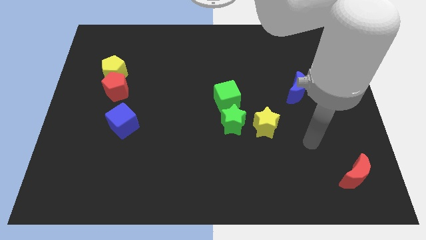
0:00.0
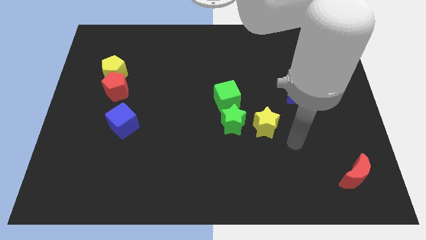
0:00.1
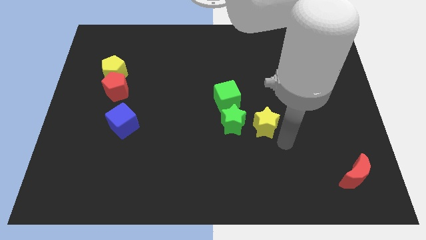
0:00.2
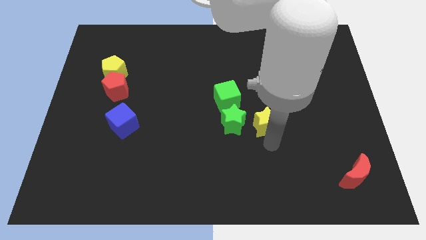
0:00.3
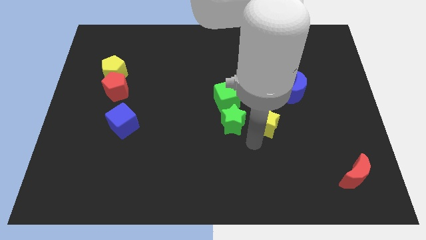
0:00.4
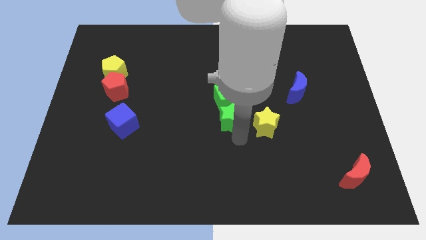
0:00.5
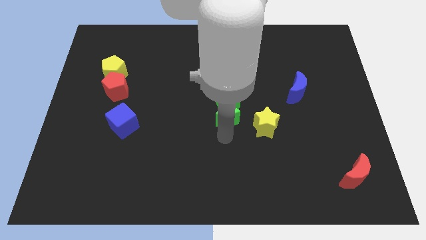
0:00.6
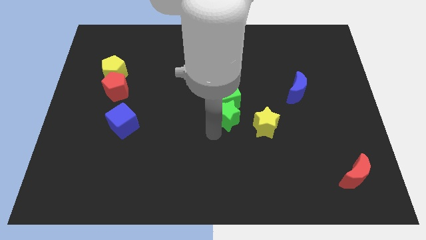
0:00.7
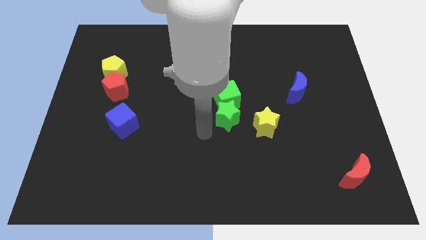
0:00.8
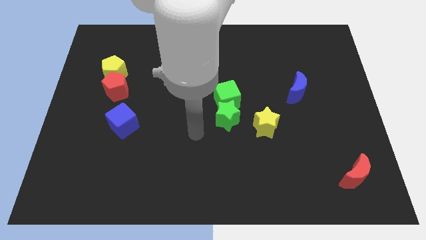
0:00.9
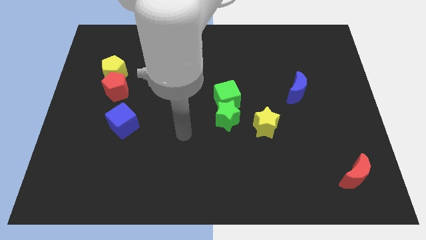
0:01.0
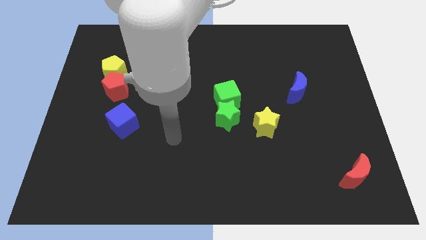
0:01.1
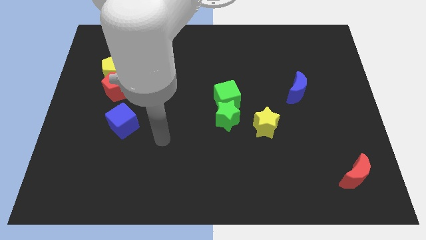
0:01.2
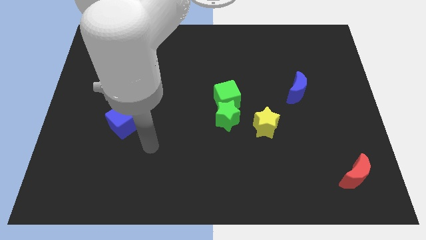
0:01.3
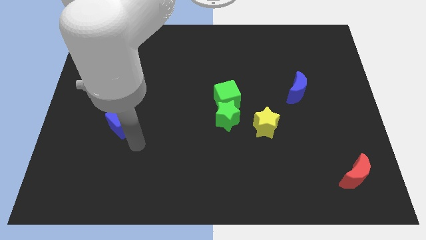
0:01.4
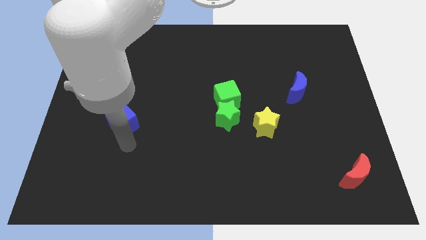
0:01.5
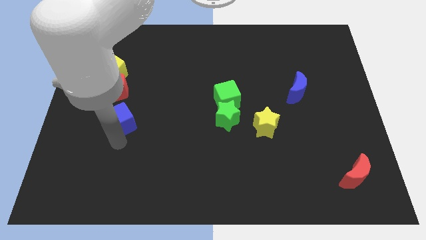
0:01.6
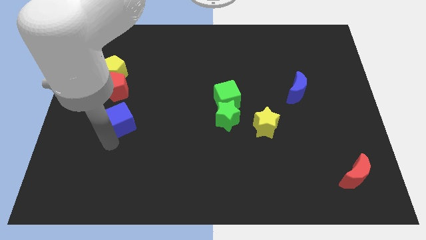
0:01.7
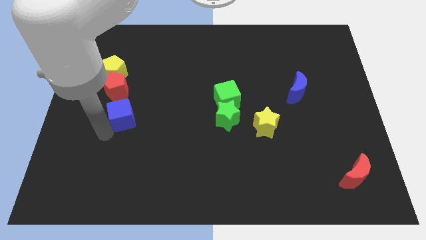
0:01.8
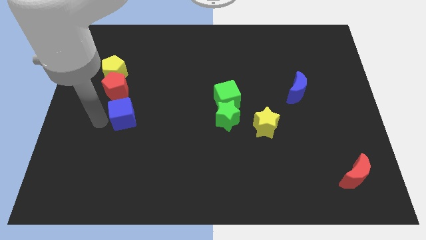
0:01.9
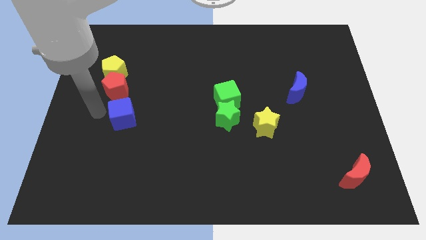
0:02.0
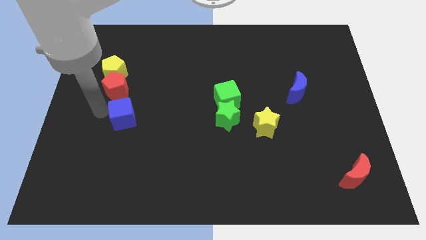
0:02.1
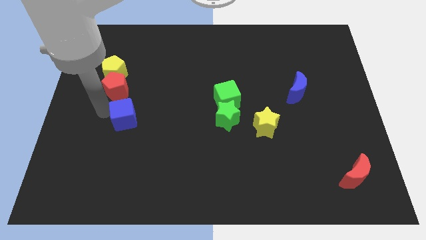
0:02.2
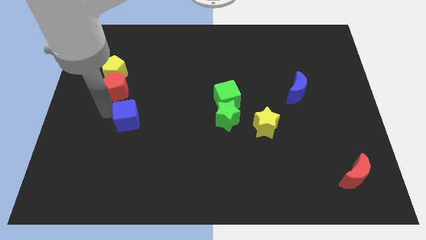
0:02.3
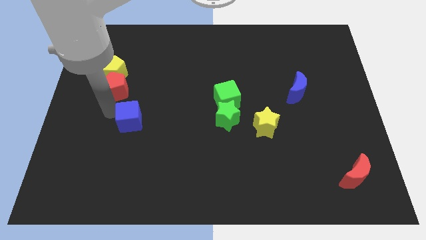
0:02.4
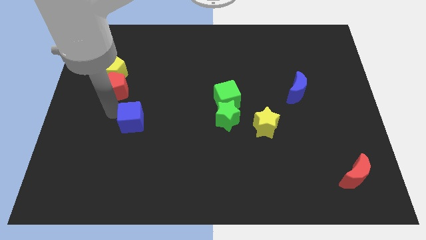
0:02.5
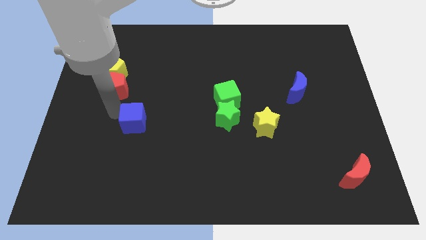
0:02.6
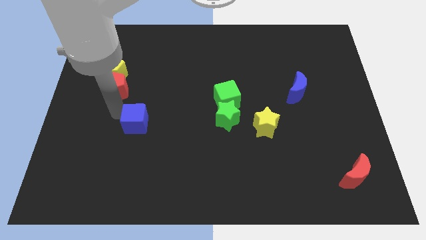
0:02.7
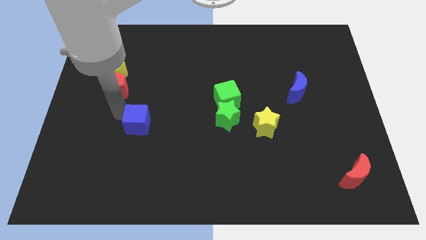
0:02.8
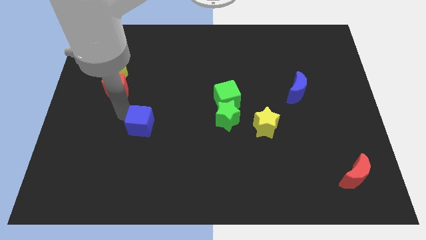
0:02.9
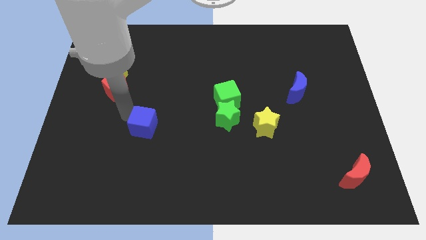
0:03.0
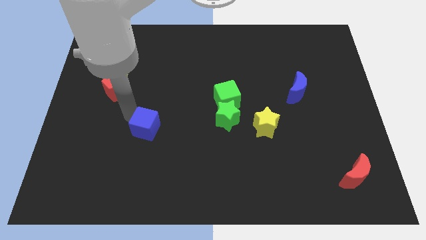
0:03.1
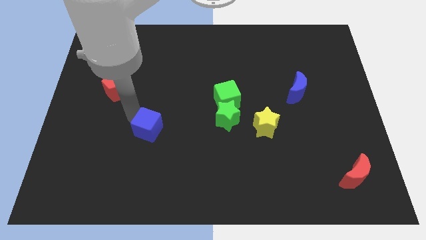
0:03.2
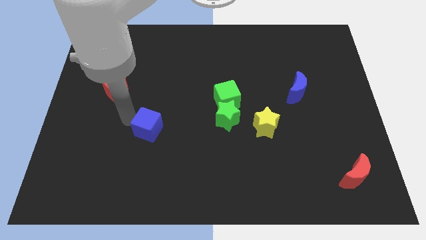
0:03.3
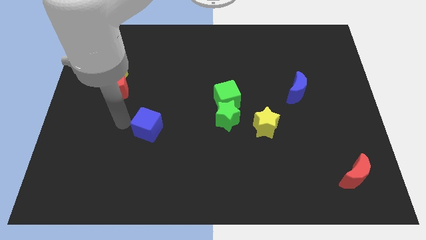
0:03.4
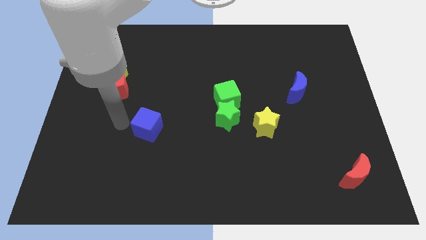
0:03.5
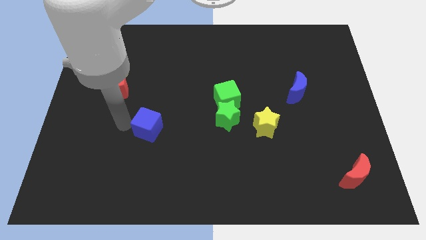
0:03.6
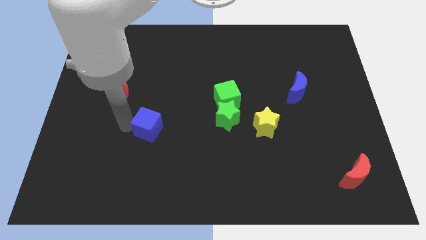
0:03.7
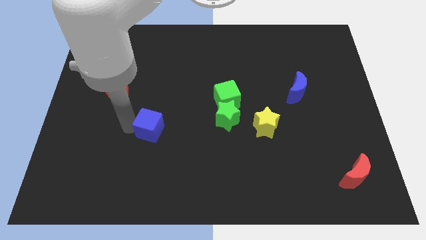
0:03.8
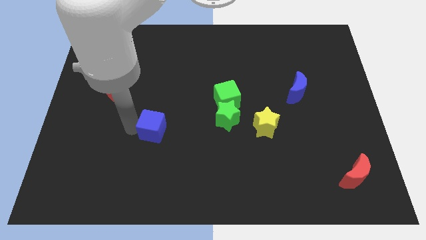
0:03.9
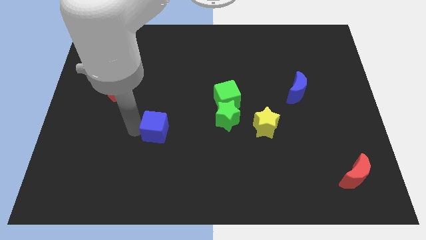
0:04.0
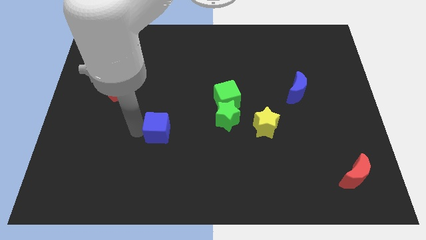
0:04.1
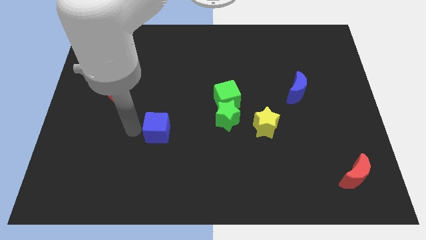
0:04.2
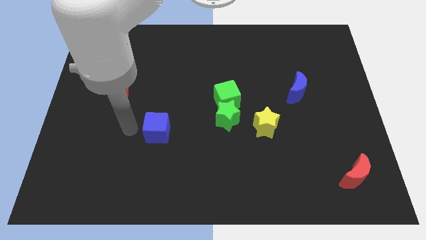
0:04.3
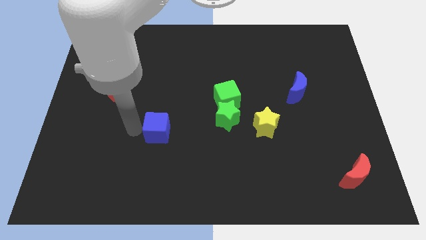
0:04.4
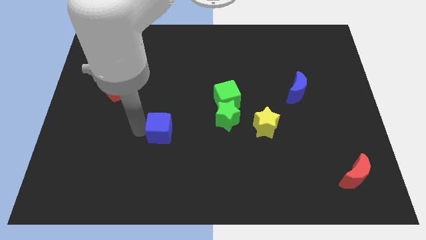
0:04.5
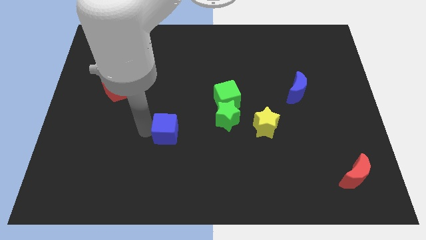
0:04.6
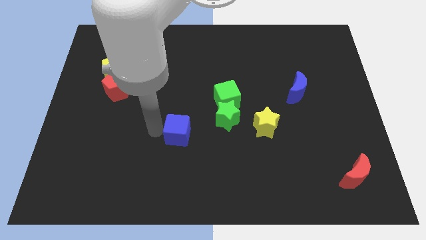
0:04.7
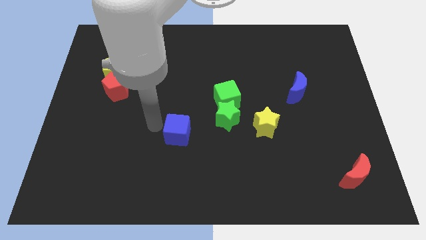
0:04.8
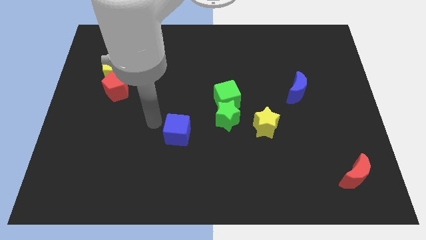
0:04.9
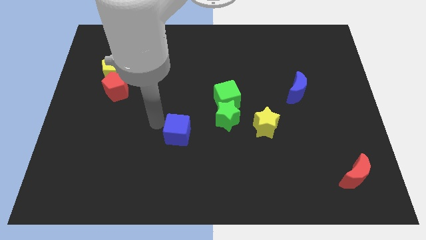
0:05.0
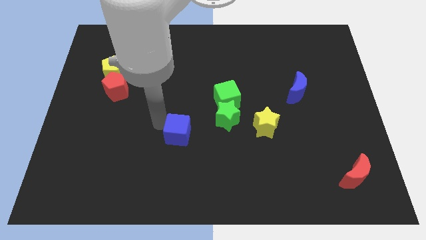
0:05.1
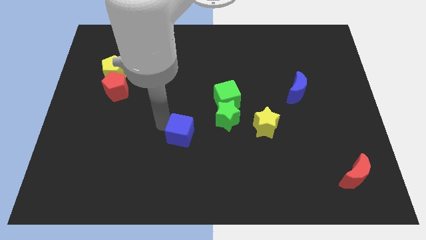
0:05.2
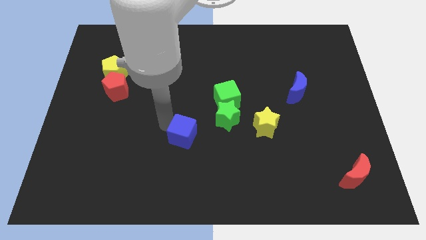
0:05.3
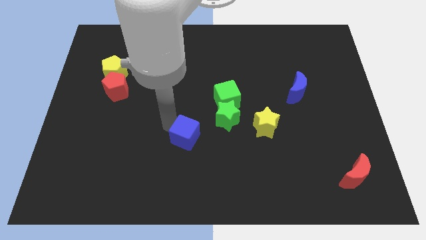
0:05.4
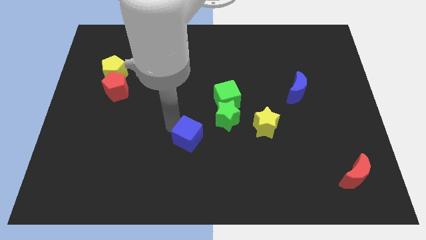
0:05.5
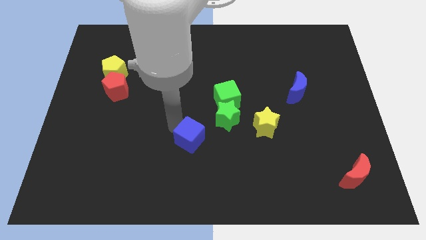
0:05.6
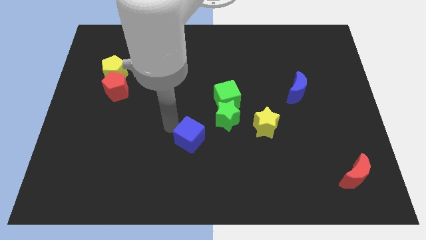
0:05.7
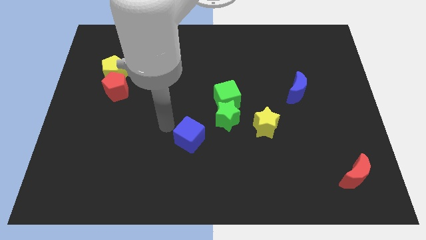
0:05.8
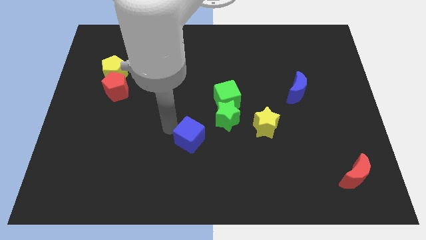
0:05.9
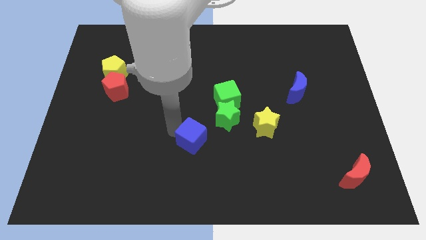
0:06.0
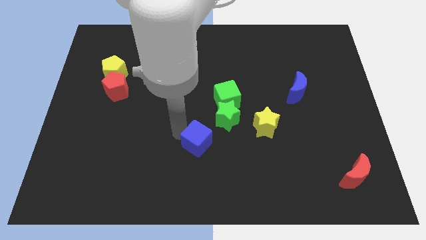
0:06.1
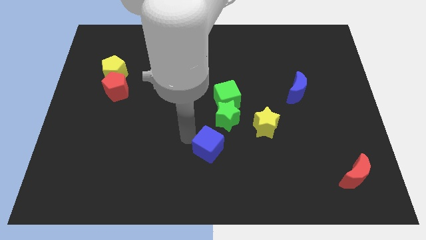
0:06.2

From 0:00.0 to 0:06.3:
push the blue cube to the bottom of the green star

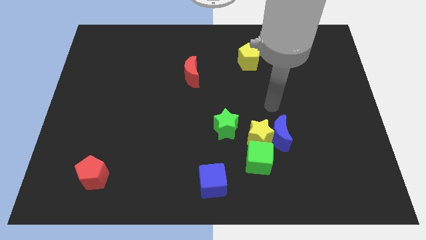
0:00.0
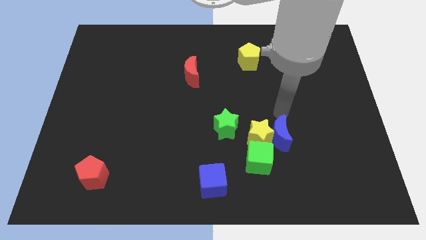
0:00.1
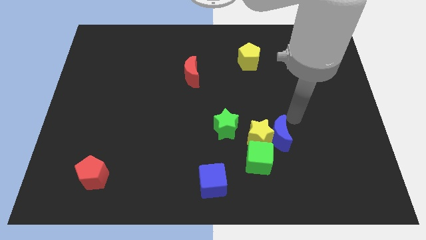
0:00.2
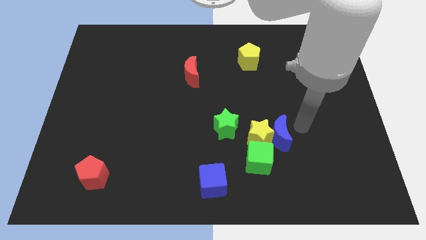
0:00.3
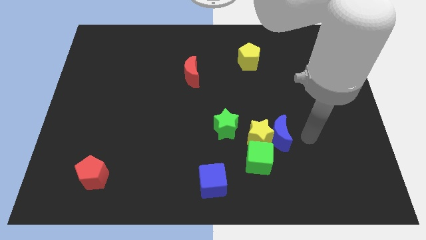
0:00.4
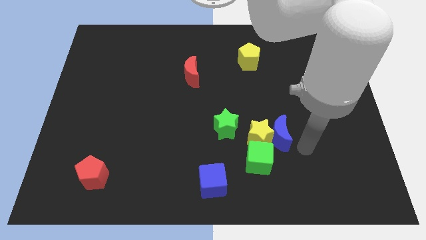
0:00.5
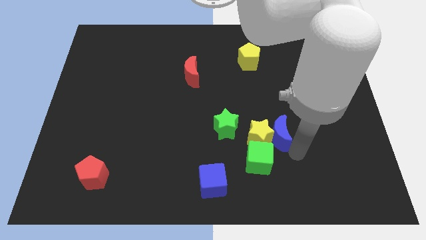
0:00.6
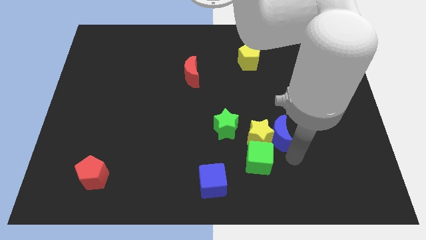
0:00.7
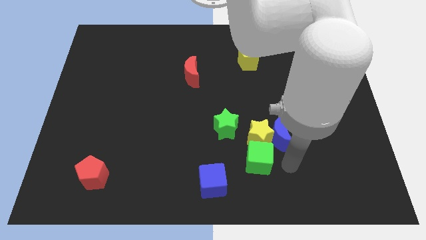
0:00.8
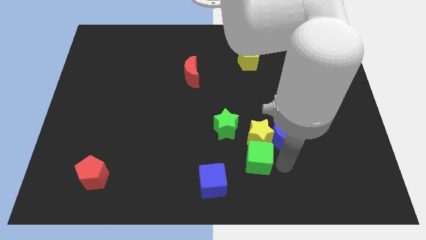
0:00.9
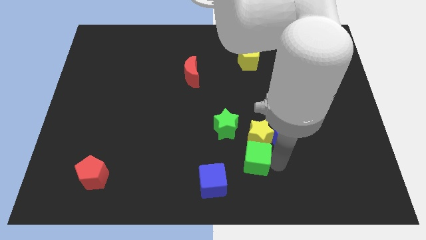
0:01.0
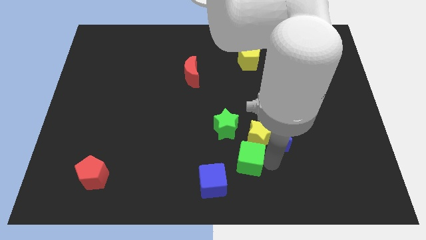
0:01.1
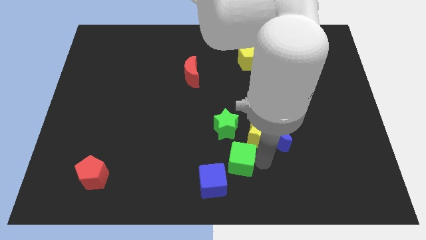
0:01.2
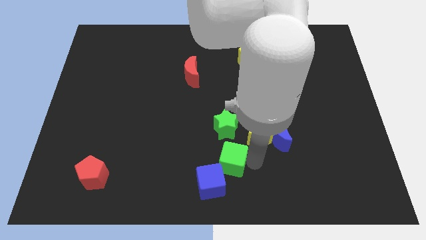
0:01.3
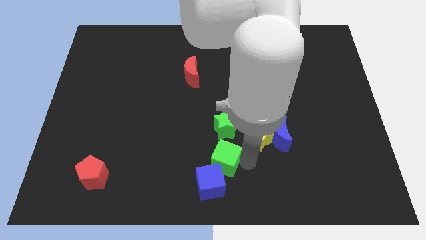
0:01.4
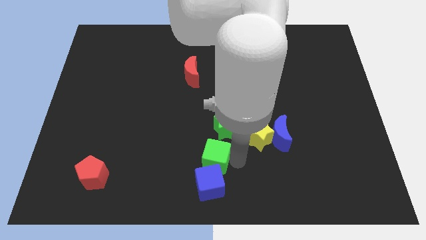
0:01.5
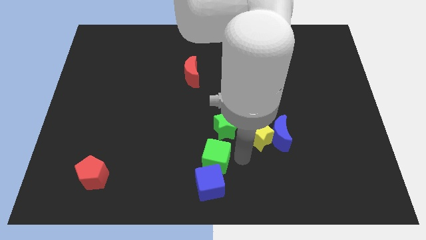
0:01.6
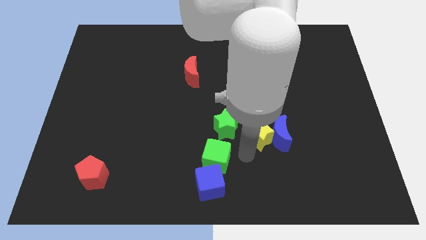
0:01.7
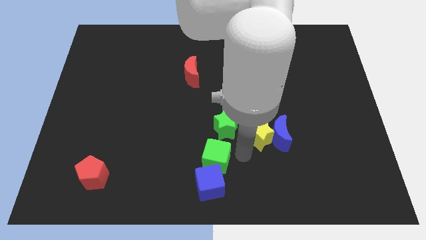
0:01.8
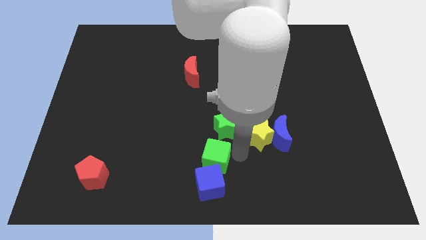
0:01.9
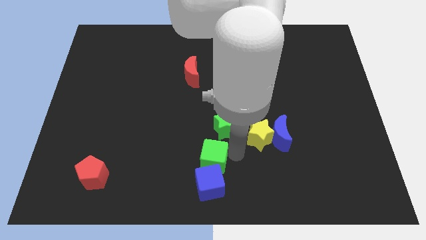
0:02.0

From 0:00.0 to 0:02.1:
slide the green cube to the top left side of the blue cube
